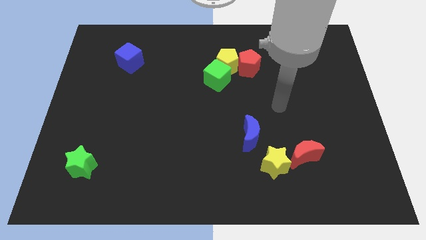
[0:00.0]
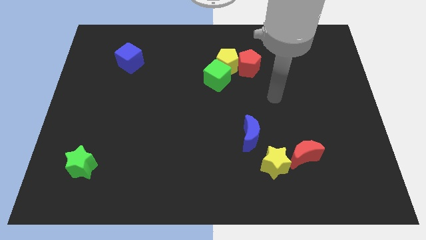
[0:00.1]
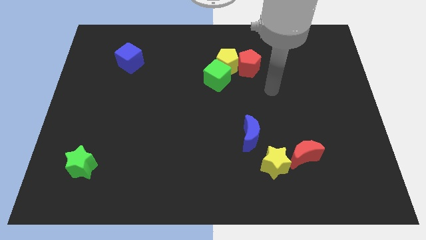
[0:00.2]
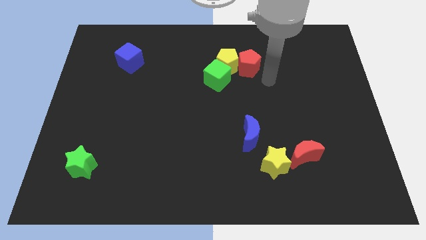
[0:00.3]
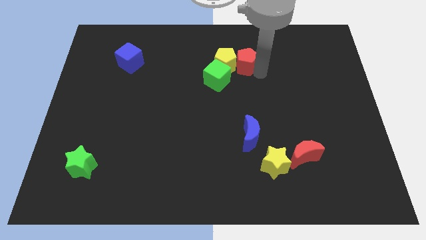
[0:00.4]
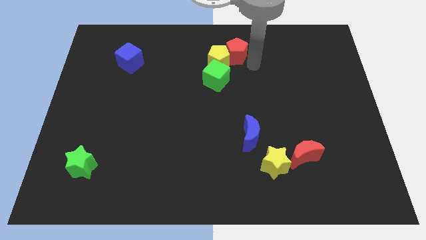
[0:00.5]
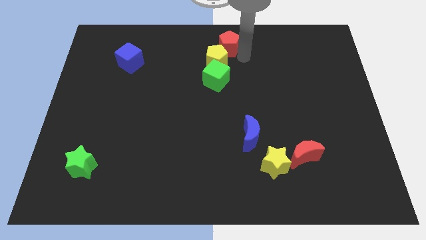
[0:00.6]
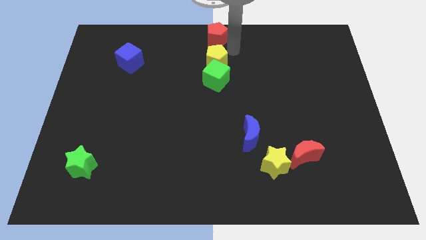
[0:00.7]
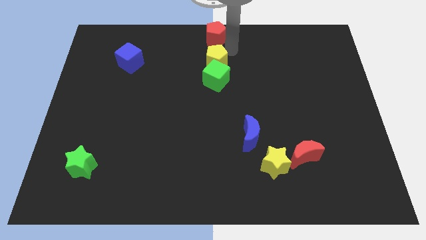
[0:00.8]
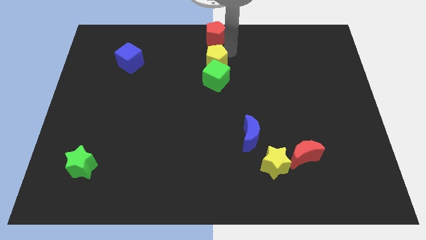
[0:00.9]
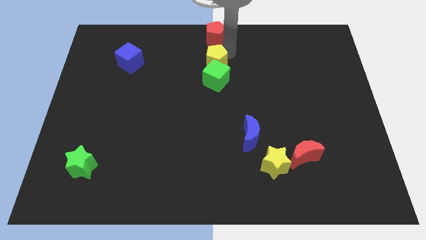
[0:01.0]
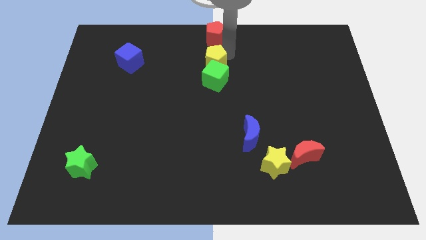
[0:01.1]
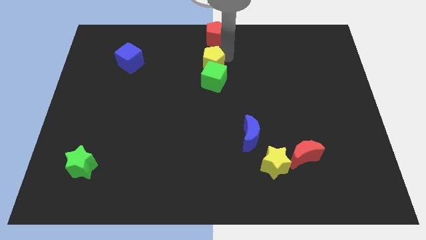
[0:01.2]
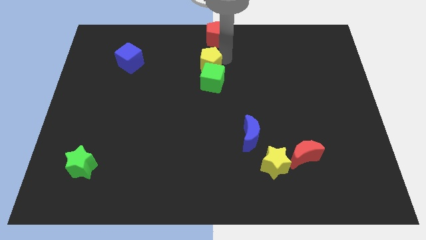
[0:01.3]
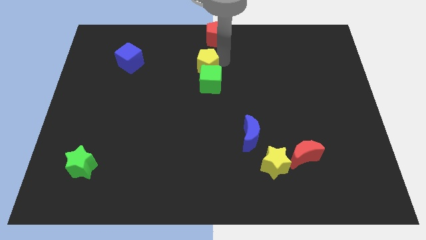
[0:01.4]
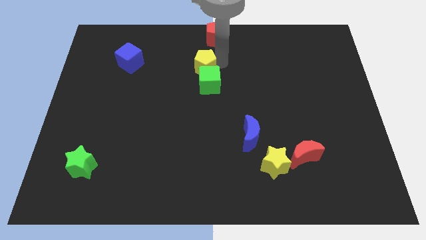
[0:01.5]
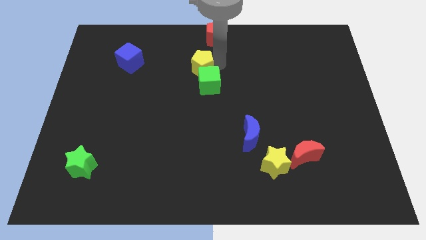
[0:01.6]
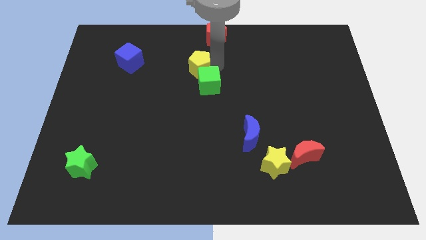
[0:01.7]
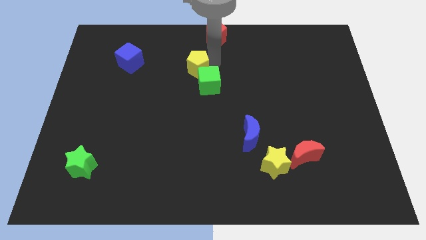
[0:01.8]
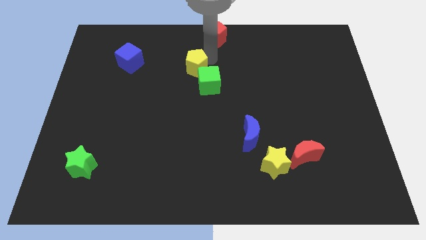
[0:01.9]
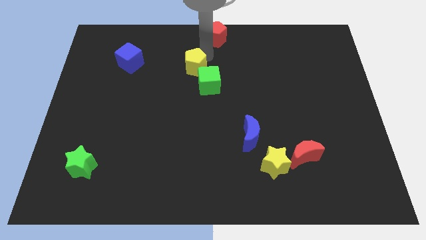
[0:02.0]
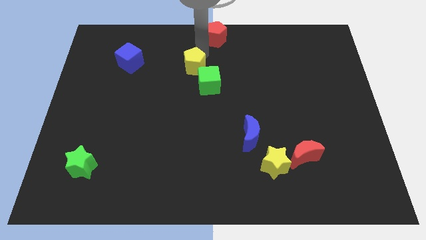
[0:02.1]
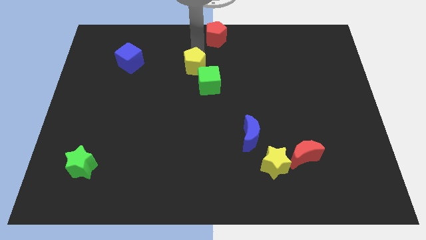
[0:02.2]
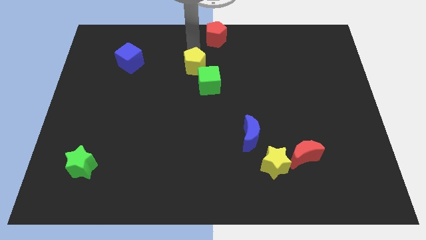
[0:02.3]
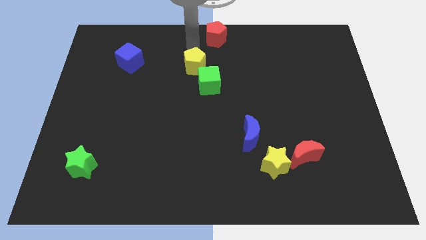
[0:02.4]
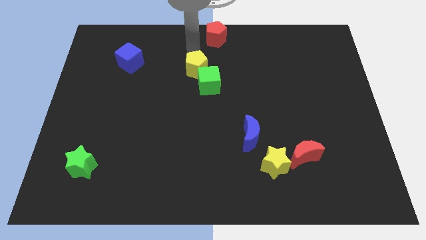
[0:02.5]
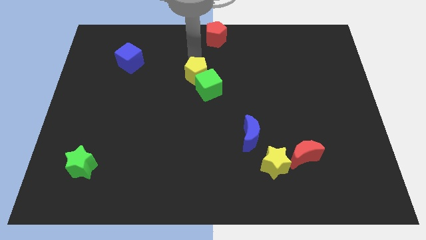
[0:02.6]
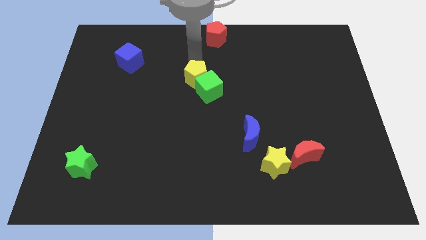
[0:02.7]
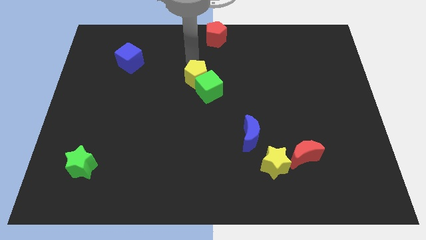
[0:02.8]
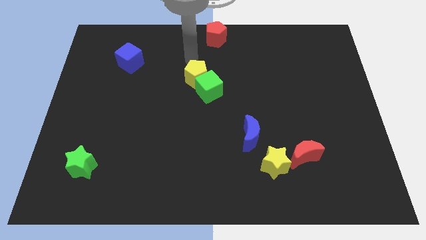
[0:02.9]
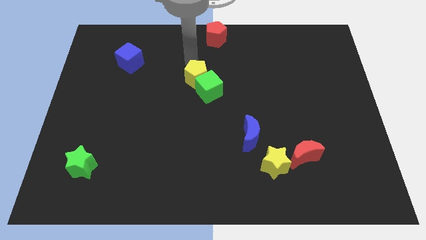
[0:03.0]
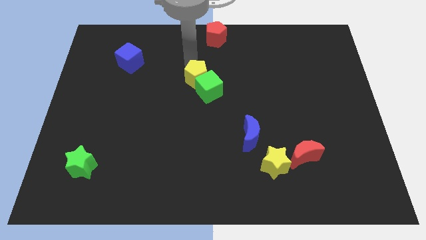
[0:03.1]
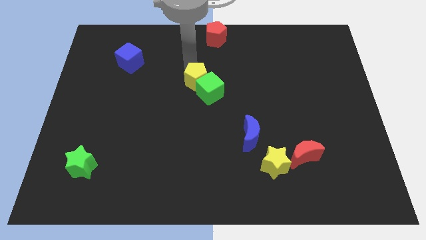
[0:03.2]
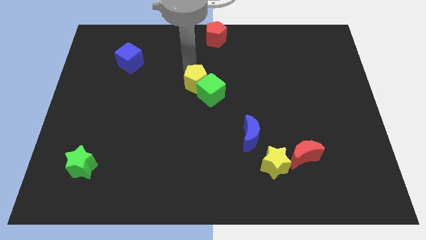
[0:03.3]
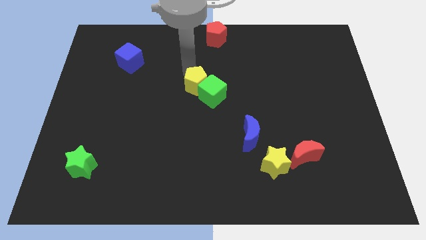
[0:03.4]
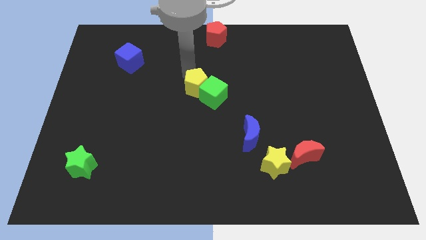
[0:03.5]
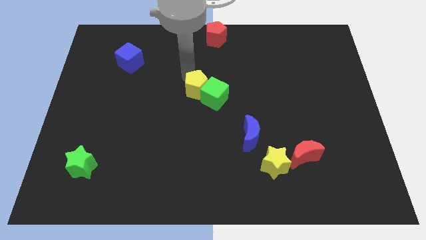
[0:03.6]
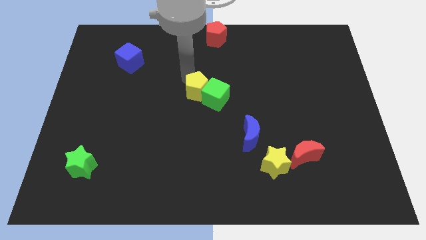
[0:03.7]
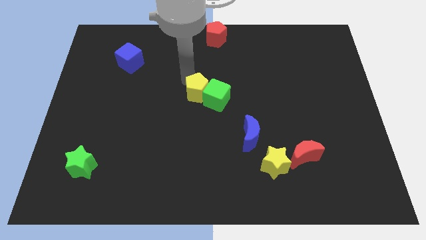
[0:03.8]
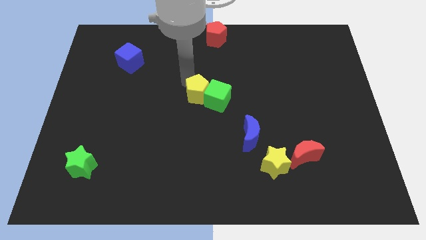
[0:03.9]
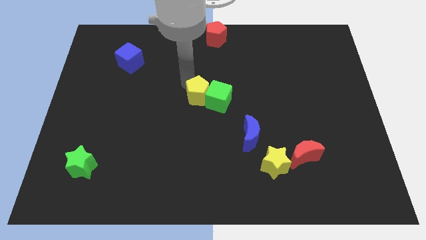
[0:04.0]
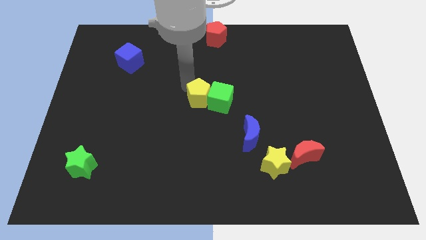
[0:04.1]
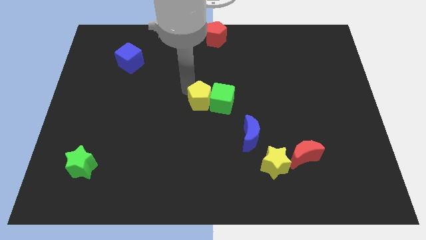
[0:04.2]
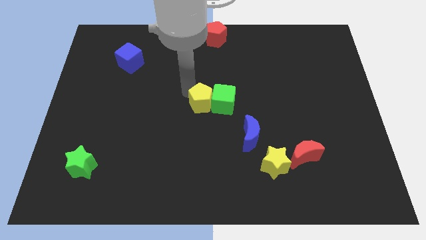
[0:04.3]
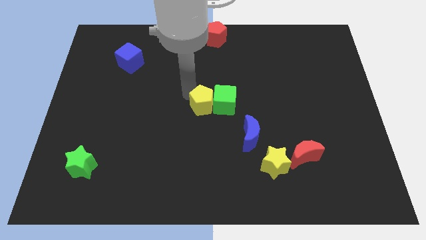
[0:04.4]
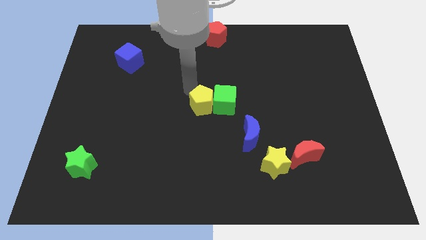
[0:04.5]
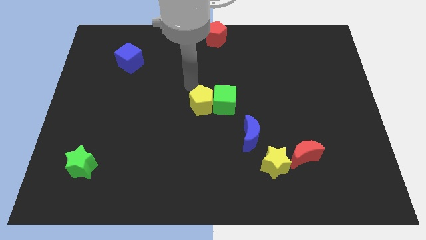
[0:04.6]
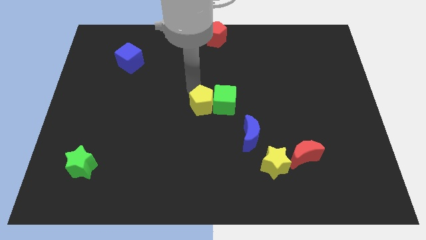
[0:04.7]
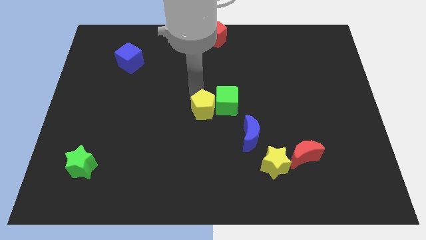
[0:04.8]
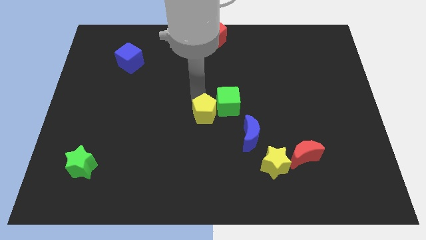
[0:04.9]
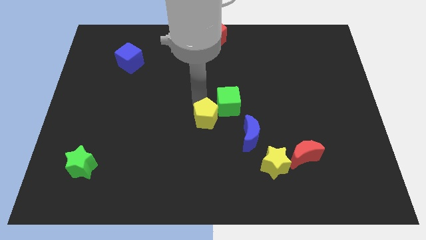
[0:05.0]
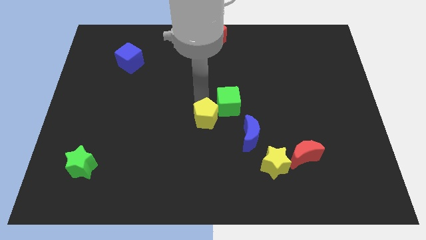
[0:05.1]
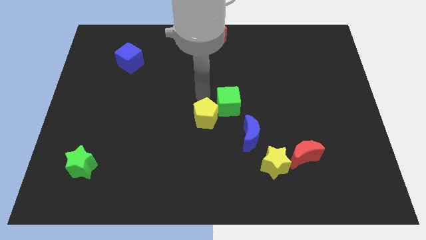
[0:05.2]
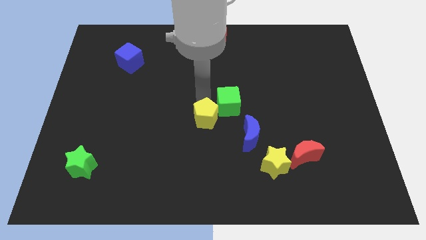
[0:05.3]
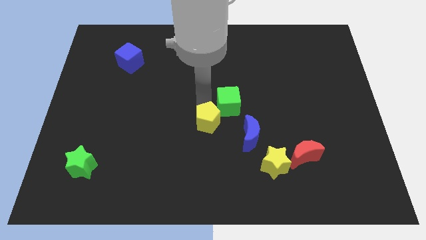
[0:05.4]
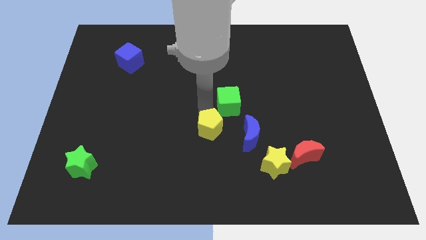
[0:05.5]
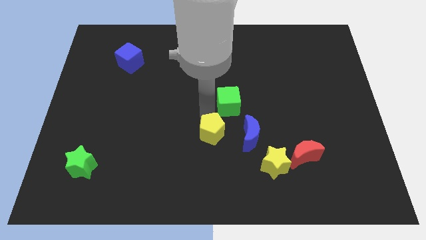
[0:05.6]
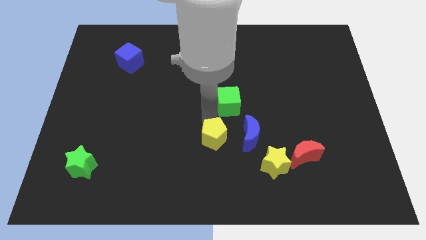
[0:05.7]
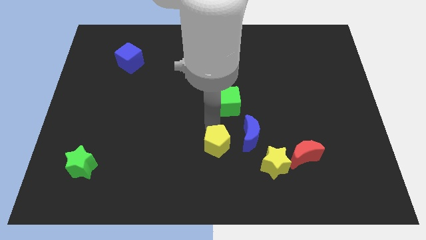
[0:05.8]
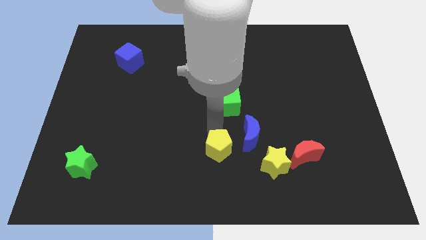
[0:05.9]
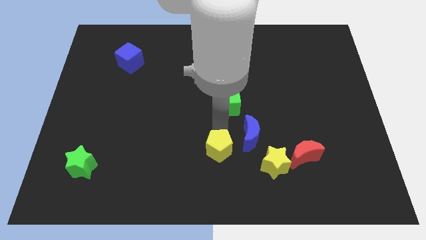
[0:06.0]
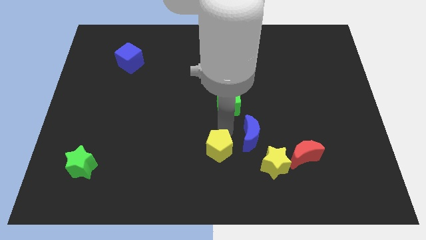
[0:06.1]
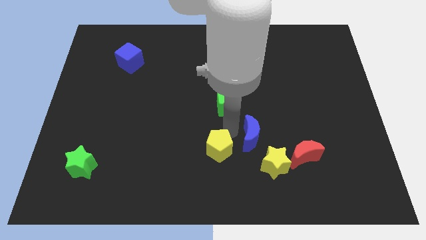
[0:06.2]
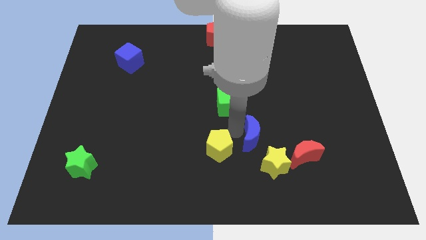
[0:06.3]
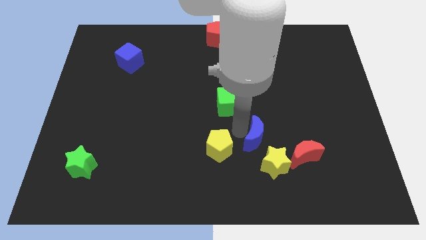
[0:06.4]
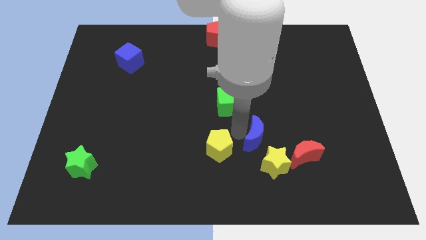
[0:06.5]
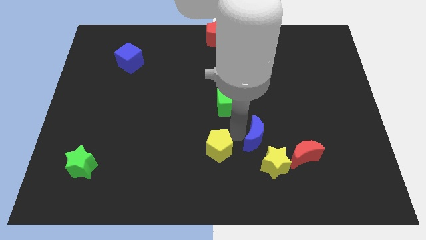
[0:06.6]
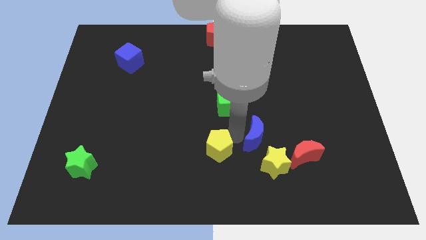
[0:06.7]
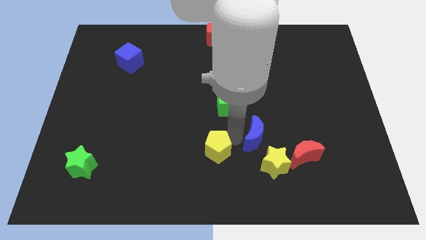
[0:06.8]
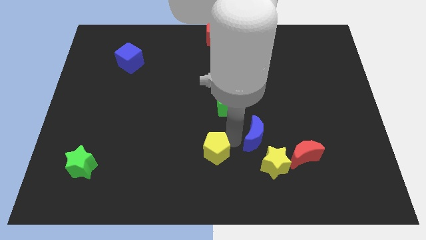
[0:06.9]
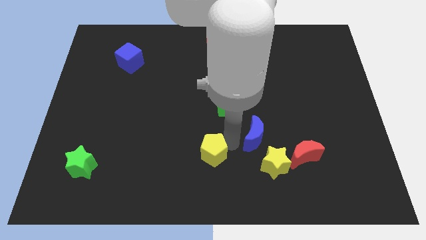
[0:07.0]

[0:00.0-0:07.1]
slide the yellow pentagon to the bottom
